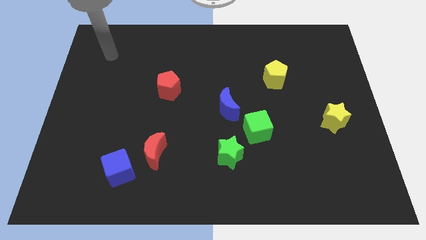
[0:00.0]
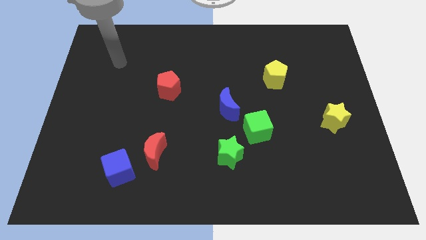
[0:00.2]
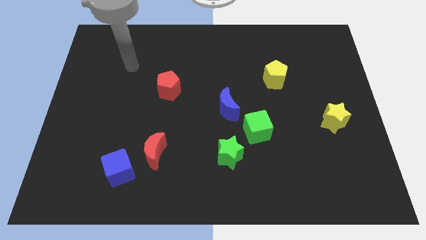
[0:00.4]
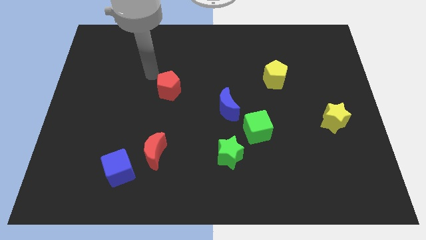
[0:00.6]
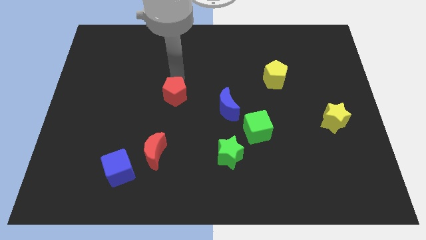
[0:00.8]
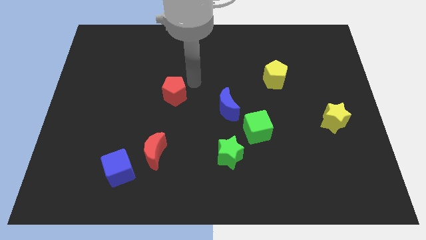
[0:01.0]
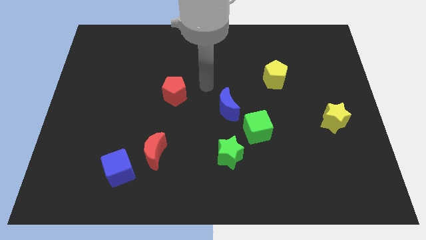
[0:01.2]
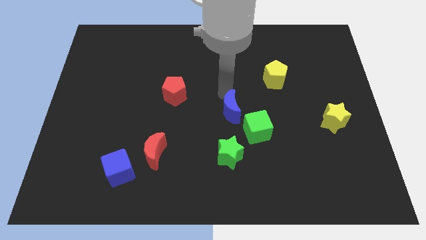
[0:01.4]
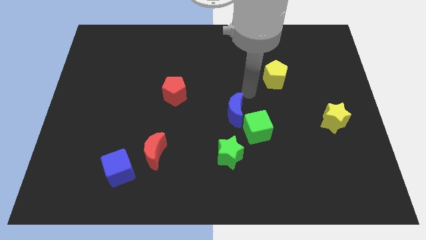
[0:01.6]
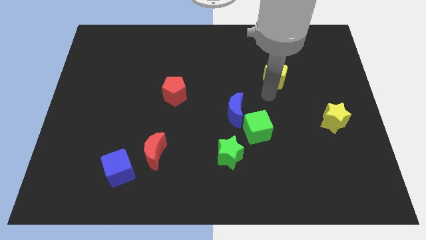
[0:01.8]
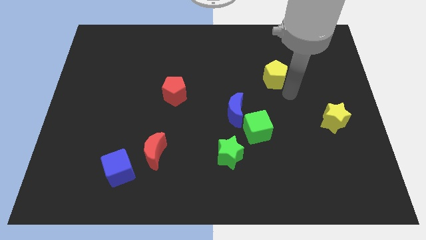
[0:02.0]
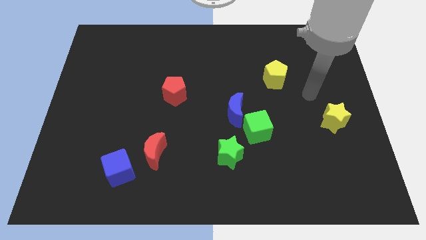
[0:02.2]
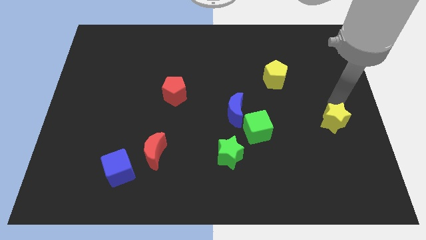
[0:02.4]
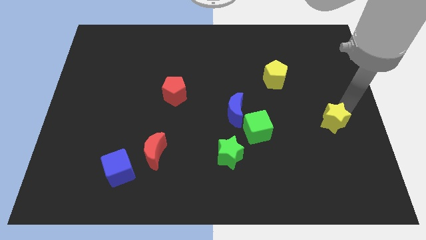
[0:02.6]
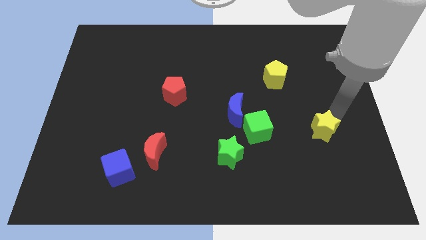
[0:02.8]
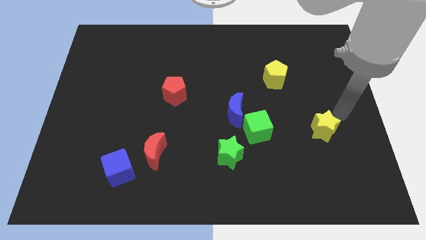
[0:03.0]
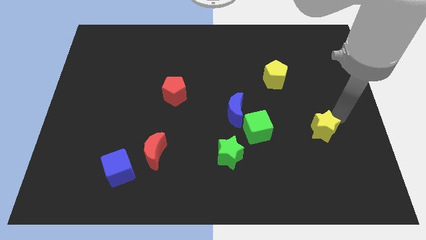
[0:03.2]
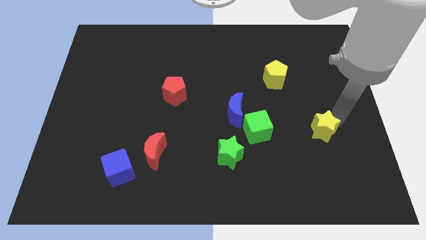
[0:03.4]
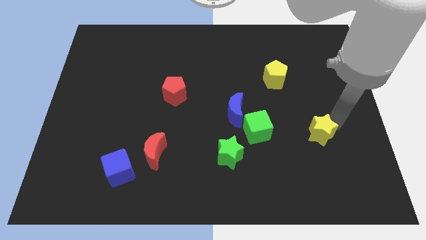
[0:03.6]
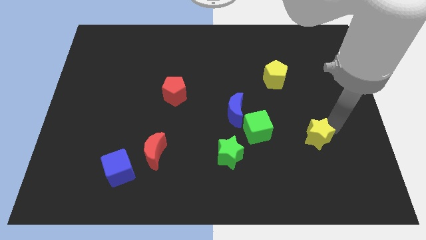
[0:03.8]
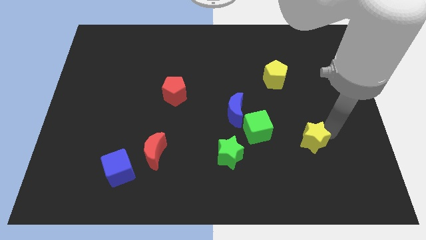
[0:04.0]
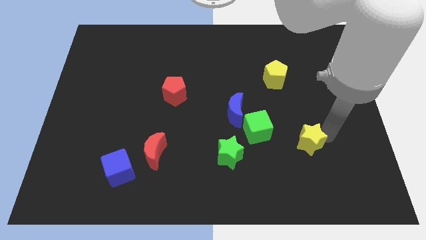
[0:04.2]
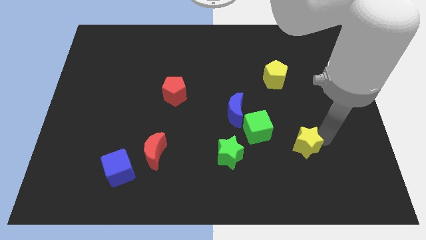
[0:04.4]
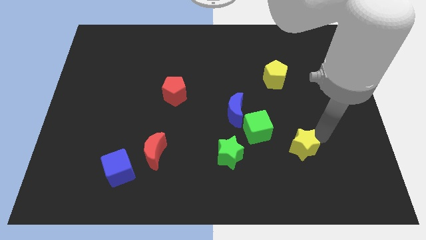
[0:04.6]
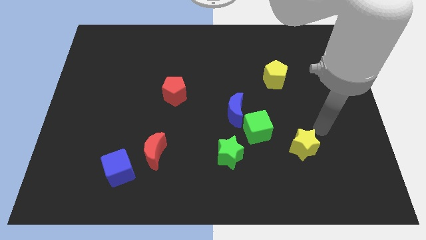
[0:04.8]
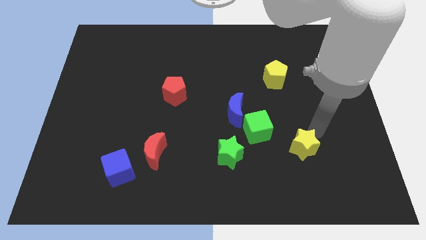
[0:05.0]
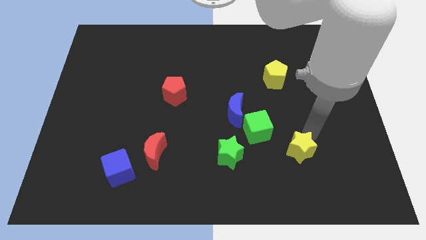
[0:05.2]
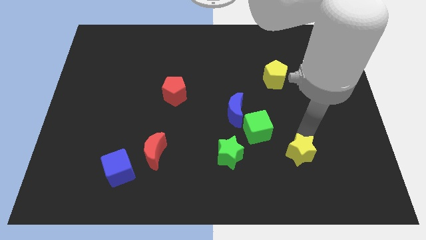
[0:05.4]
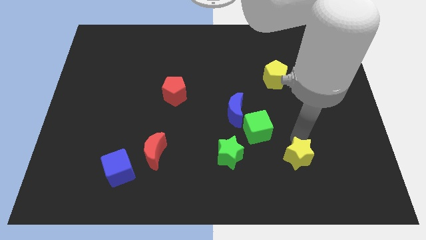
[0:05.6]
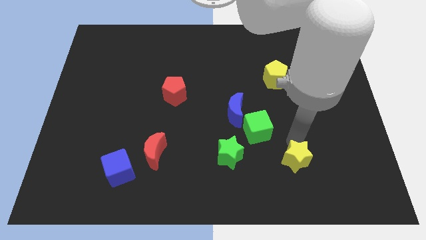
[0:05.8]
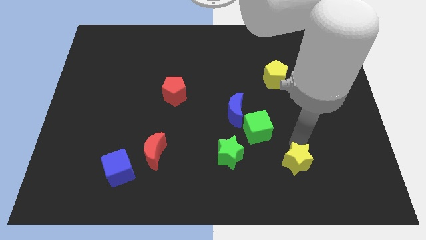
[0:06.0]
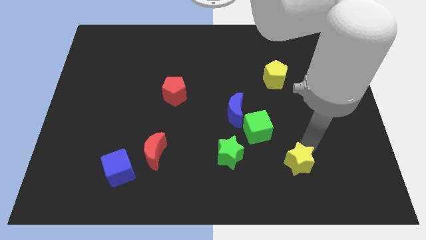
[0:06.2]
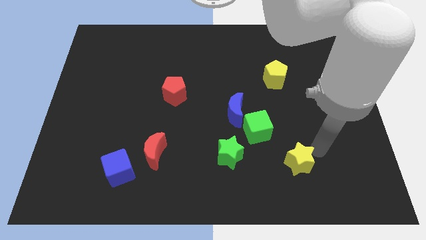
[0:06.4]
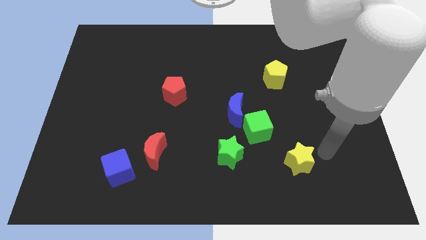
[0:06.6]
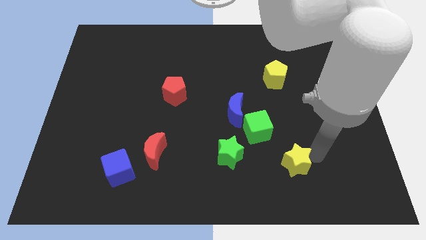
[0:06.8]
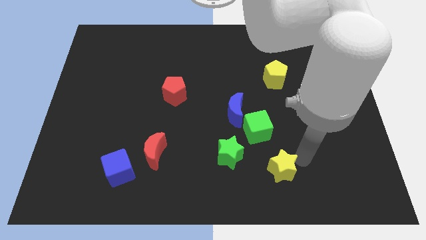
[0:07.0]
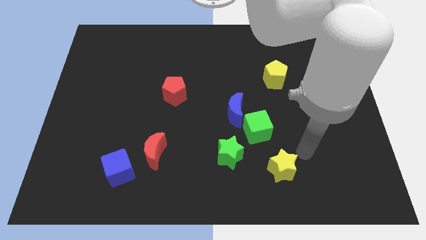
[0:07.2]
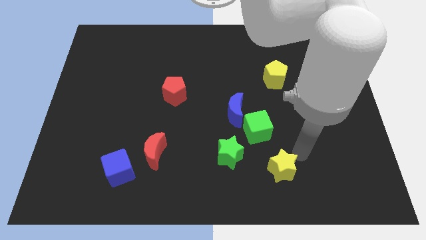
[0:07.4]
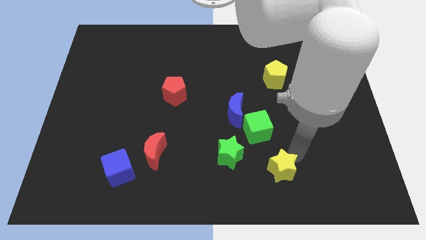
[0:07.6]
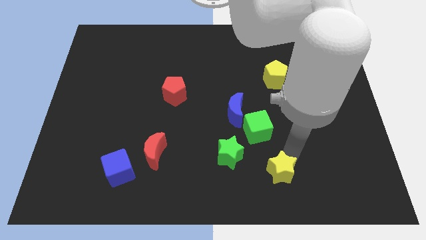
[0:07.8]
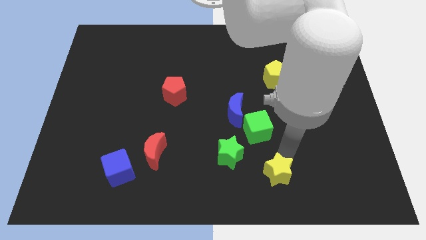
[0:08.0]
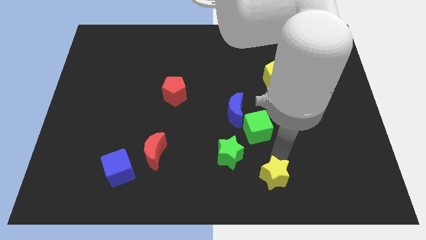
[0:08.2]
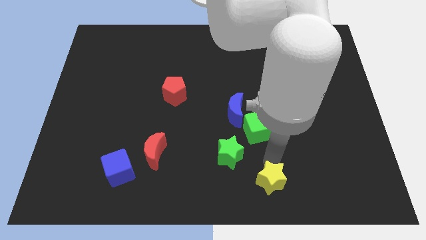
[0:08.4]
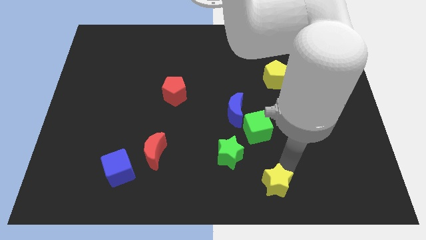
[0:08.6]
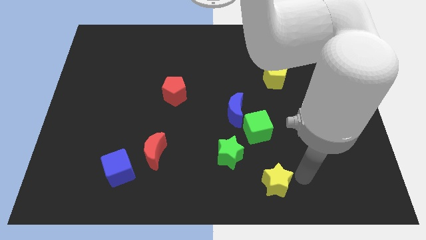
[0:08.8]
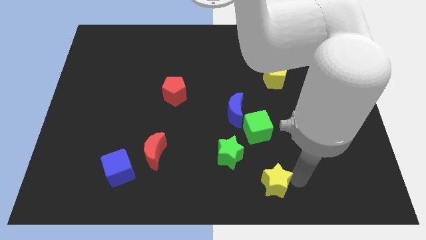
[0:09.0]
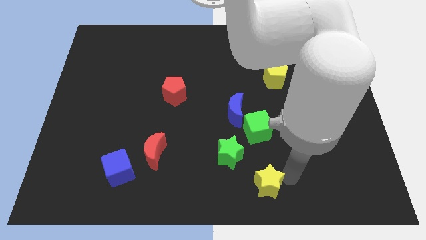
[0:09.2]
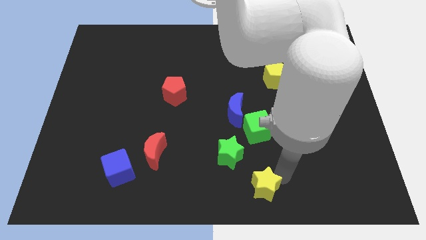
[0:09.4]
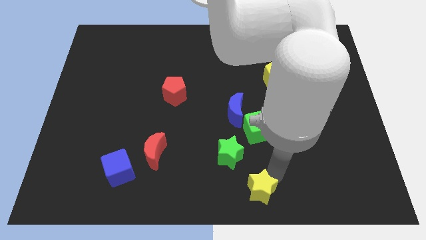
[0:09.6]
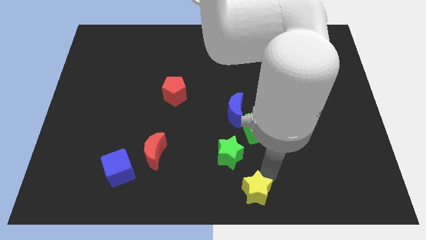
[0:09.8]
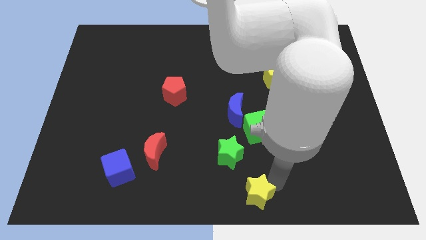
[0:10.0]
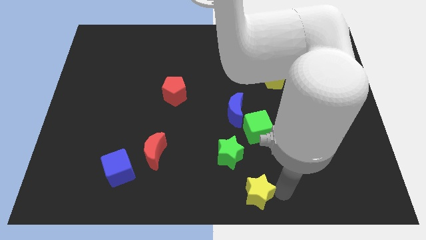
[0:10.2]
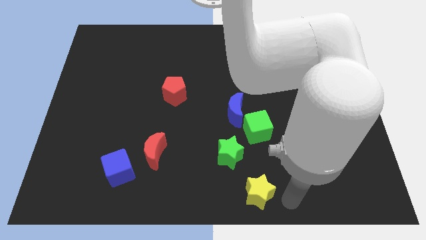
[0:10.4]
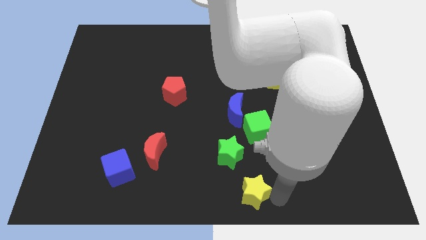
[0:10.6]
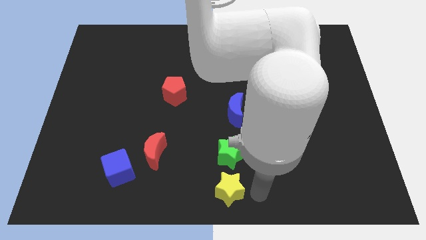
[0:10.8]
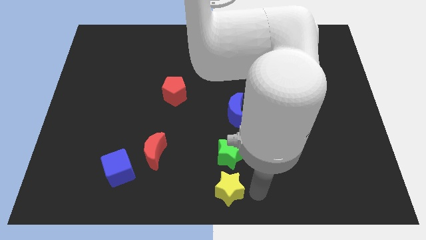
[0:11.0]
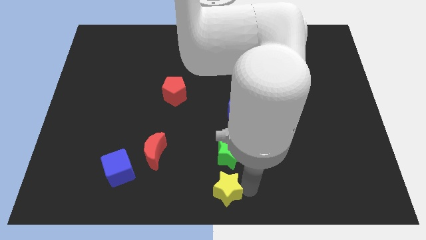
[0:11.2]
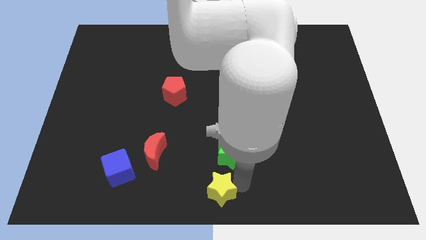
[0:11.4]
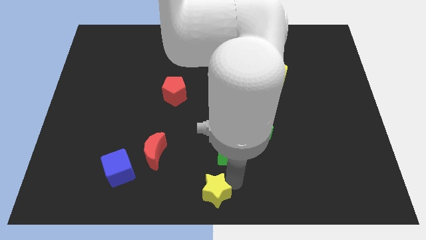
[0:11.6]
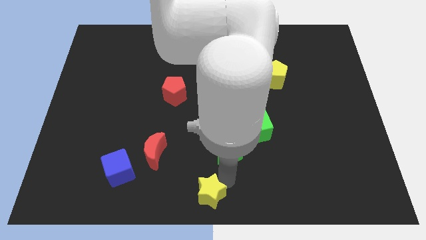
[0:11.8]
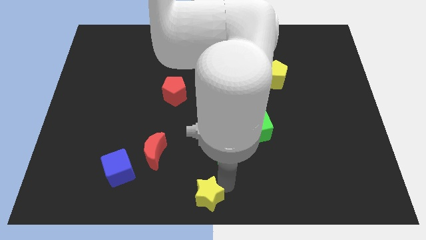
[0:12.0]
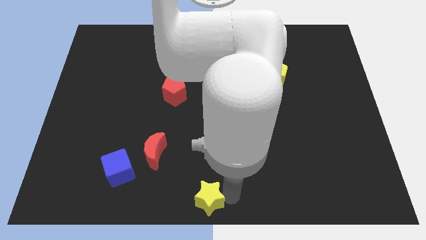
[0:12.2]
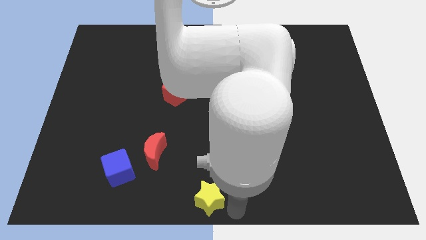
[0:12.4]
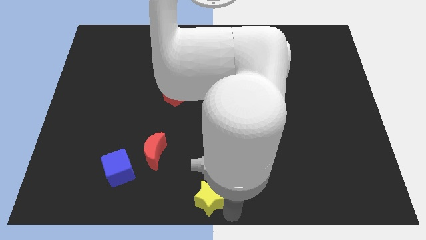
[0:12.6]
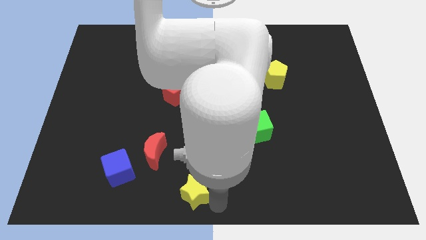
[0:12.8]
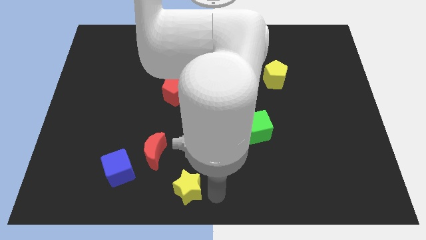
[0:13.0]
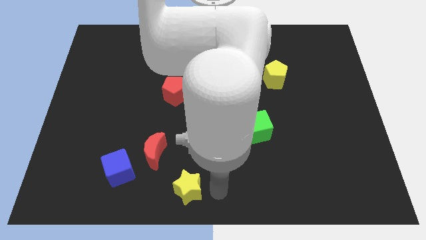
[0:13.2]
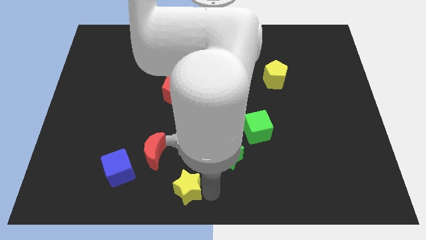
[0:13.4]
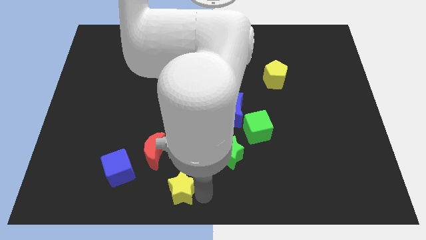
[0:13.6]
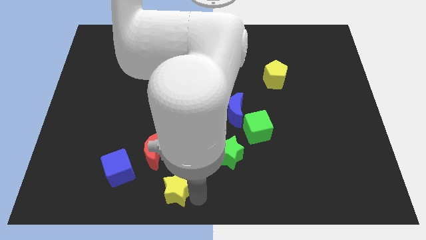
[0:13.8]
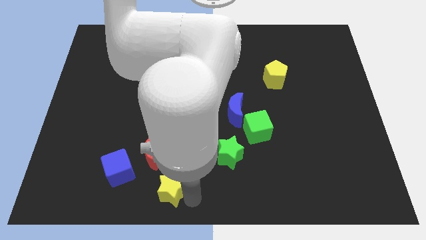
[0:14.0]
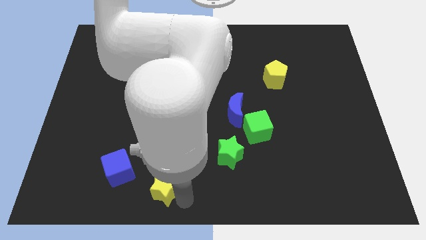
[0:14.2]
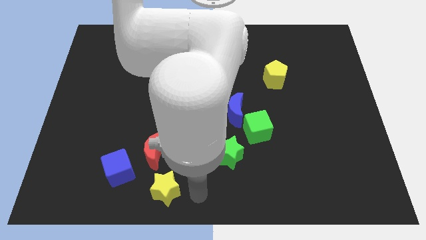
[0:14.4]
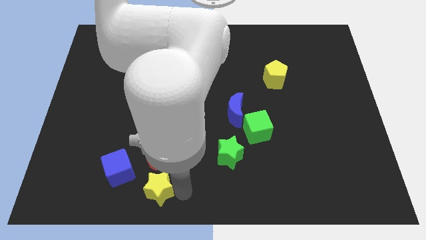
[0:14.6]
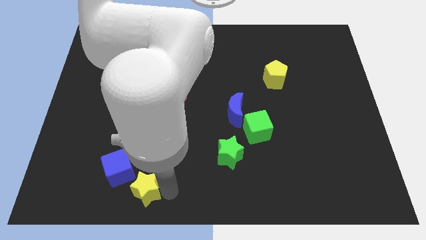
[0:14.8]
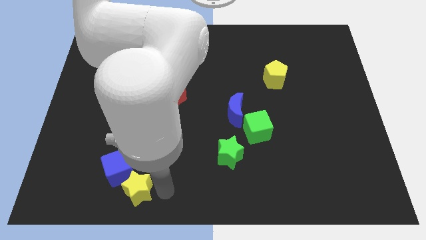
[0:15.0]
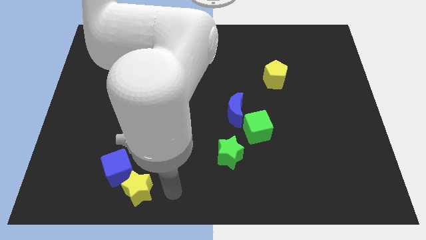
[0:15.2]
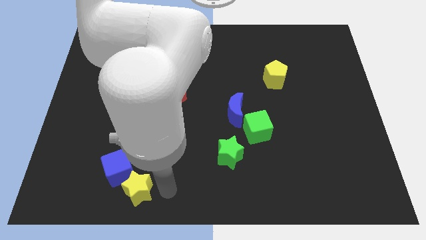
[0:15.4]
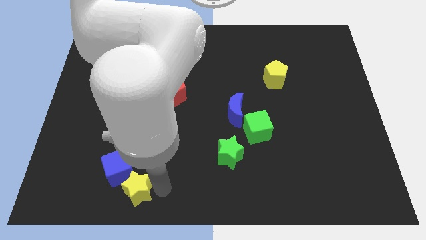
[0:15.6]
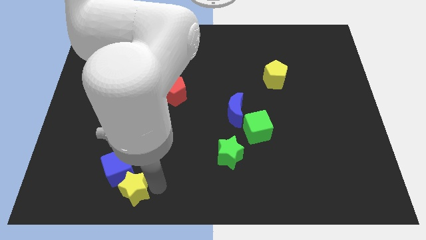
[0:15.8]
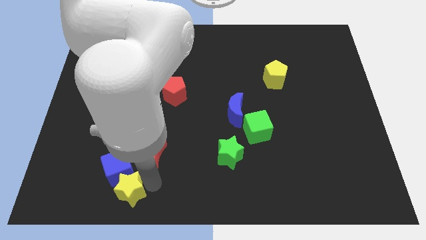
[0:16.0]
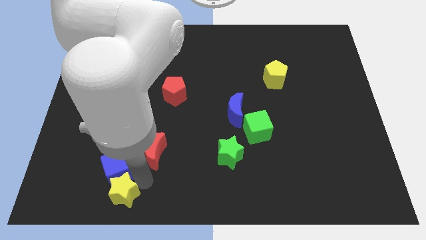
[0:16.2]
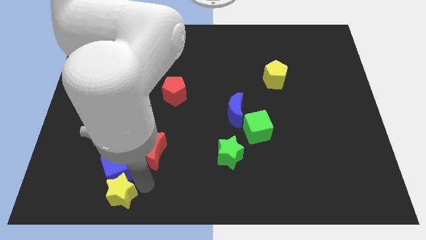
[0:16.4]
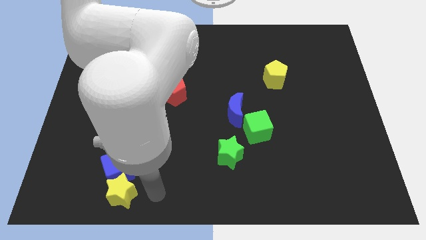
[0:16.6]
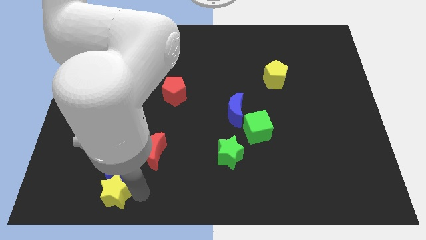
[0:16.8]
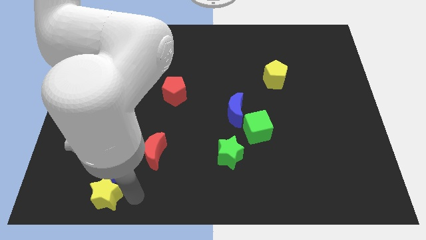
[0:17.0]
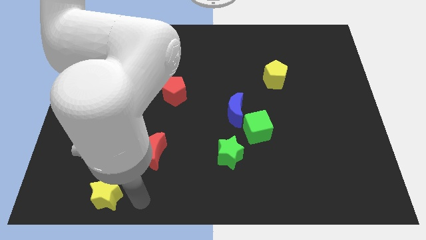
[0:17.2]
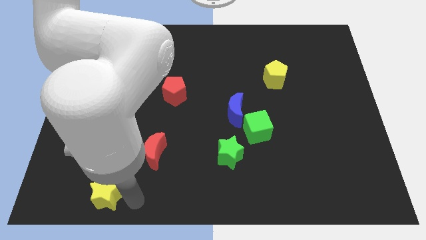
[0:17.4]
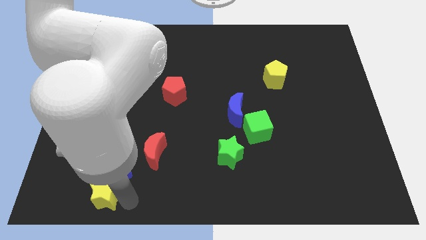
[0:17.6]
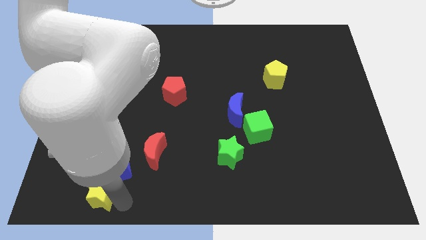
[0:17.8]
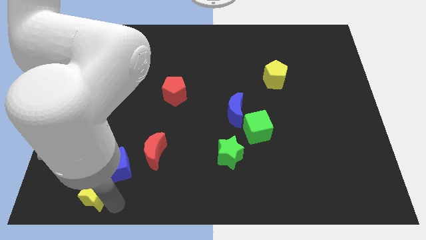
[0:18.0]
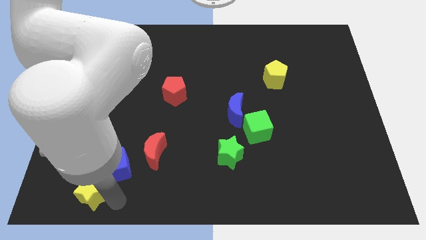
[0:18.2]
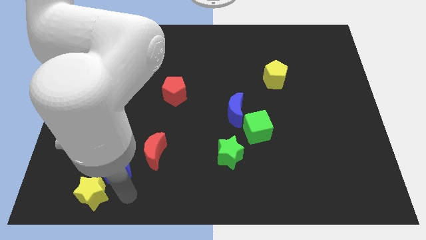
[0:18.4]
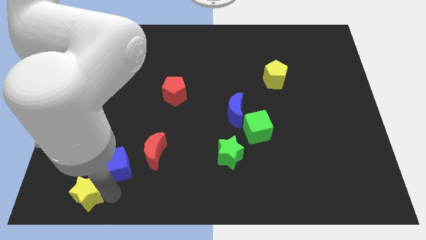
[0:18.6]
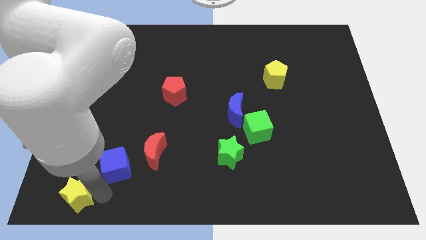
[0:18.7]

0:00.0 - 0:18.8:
push the yellow star to the bottom left
